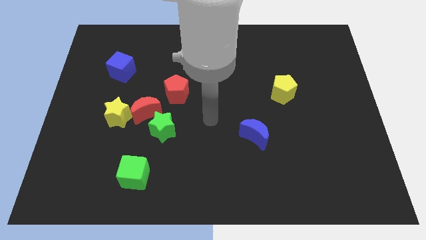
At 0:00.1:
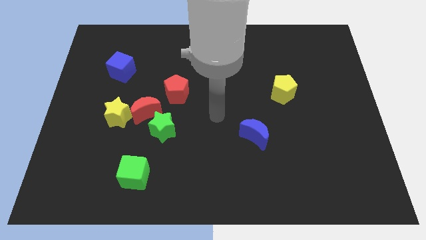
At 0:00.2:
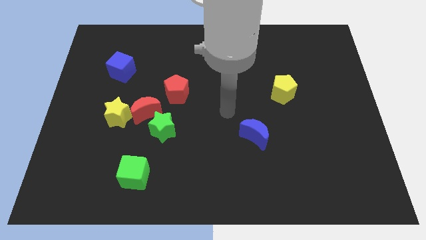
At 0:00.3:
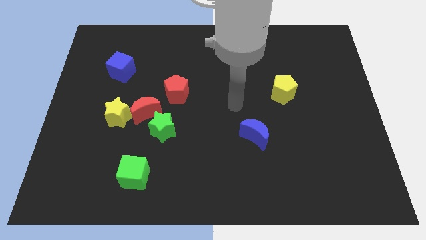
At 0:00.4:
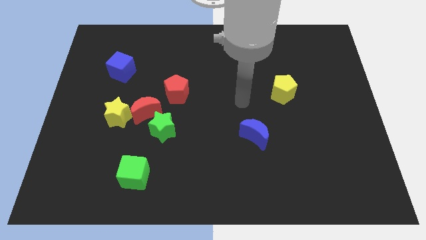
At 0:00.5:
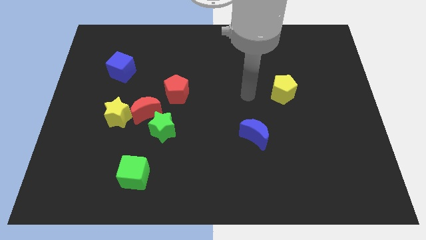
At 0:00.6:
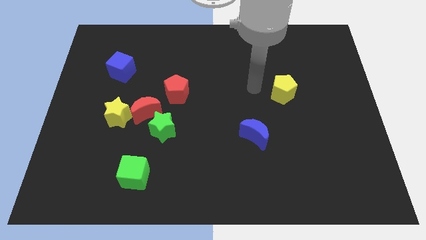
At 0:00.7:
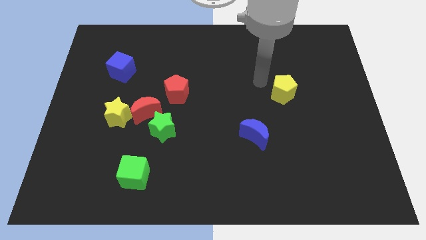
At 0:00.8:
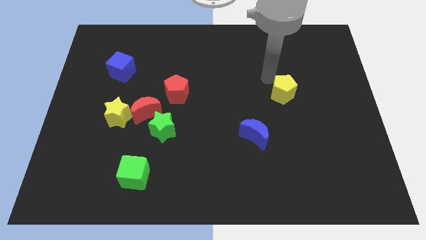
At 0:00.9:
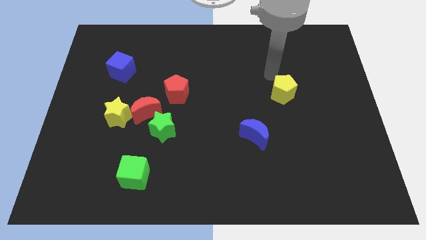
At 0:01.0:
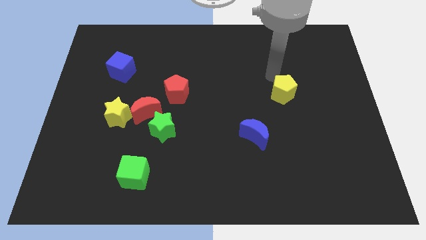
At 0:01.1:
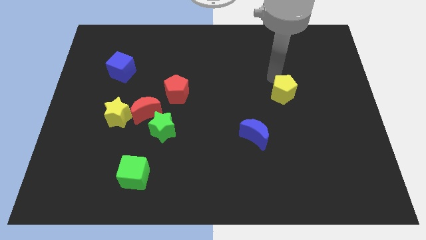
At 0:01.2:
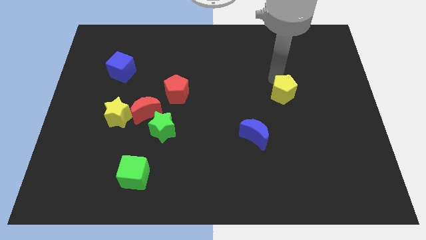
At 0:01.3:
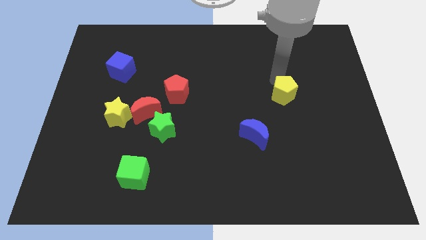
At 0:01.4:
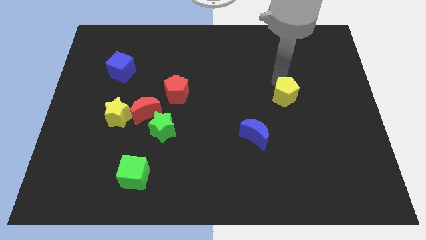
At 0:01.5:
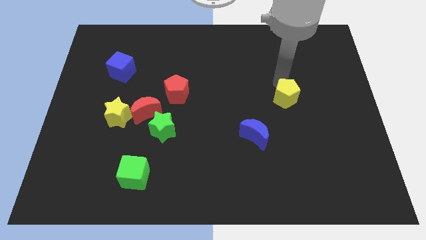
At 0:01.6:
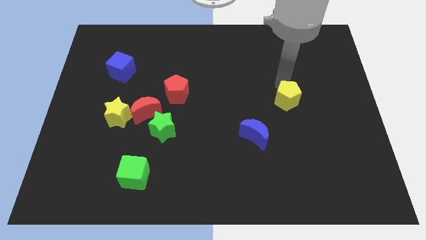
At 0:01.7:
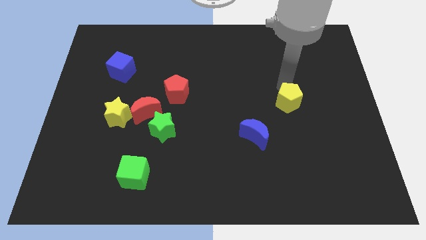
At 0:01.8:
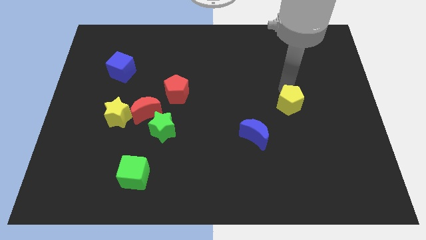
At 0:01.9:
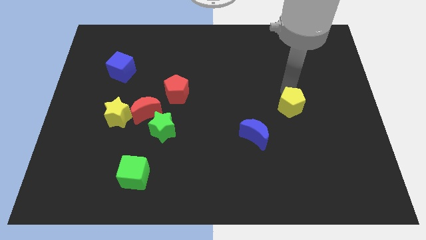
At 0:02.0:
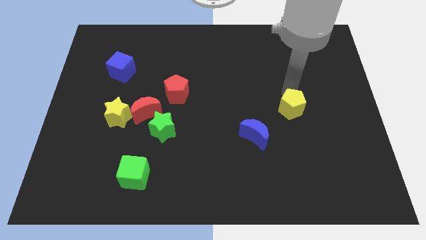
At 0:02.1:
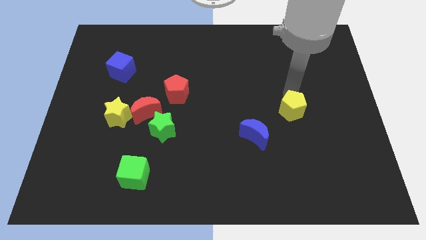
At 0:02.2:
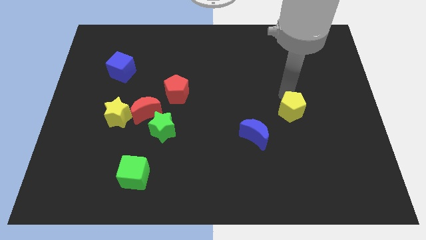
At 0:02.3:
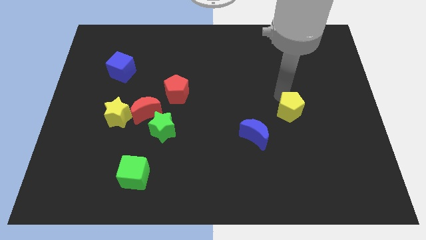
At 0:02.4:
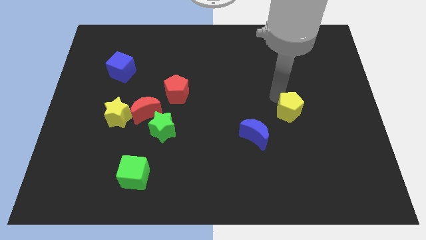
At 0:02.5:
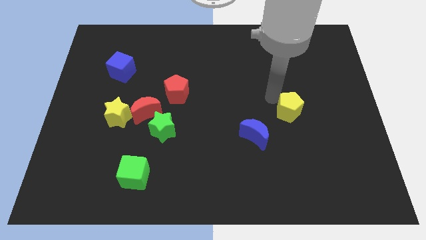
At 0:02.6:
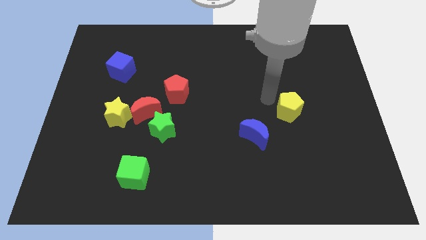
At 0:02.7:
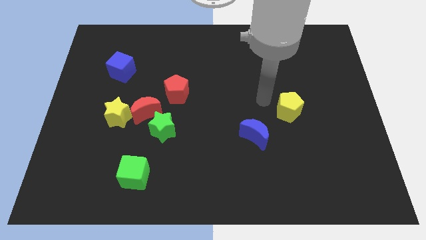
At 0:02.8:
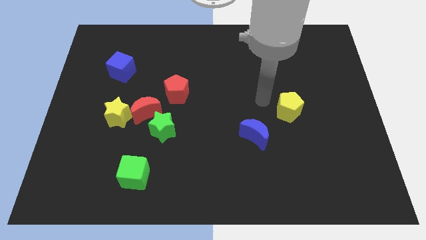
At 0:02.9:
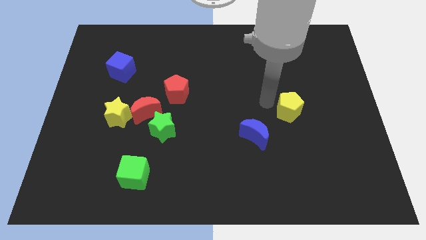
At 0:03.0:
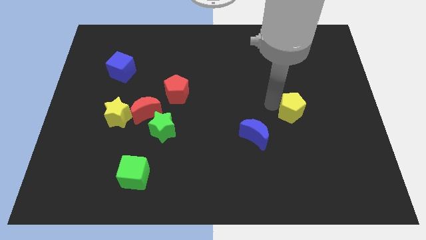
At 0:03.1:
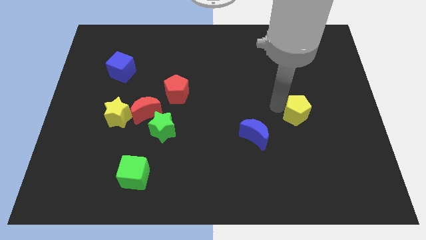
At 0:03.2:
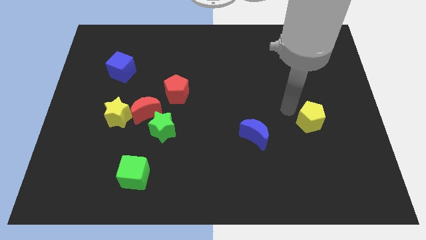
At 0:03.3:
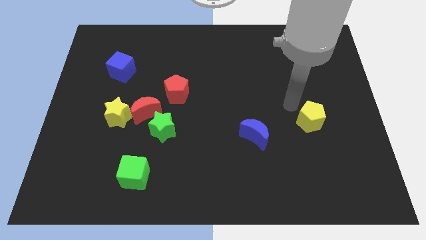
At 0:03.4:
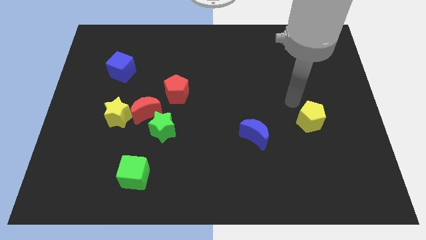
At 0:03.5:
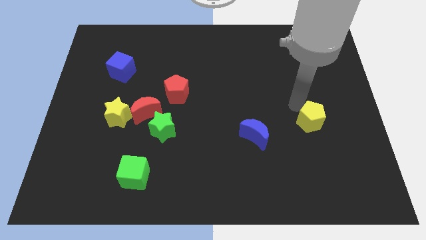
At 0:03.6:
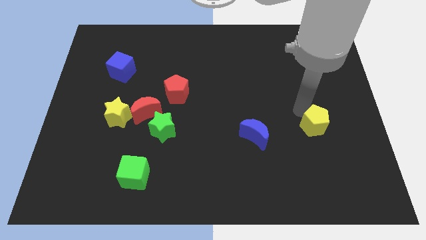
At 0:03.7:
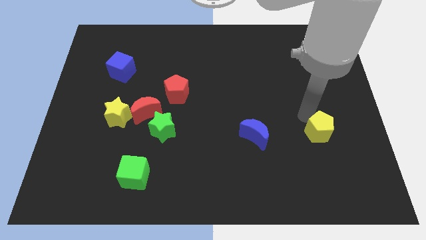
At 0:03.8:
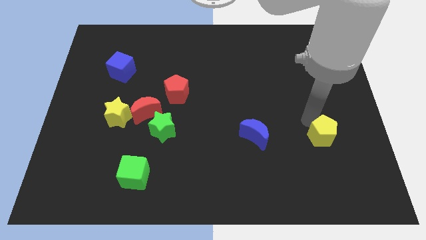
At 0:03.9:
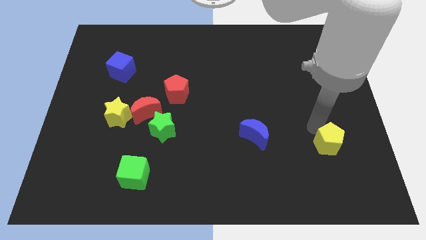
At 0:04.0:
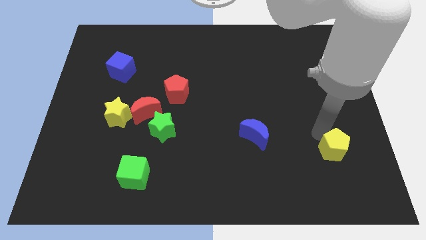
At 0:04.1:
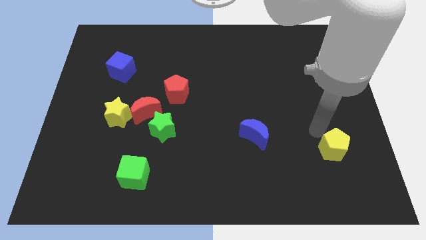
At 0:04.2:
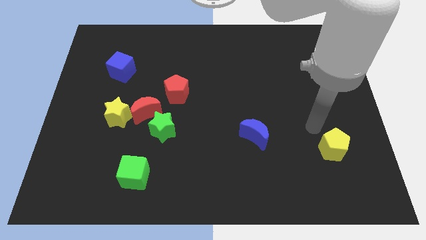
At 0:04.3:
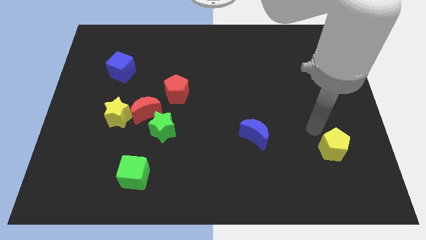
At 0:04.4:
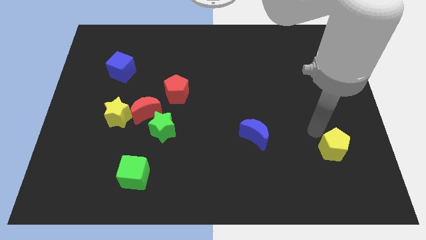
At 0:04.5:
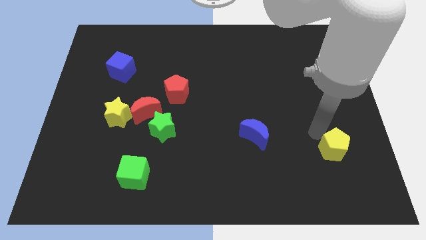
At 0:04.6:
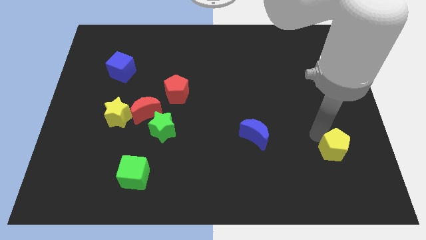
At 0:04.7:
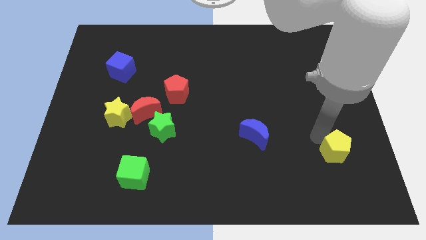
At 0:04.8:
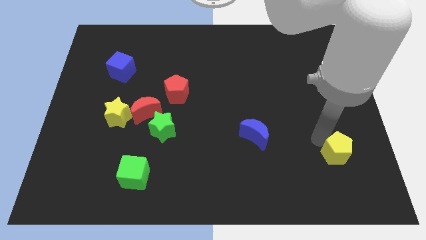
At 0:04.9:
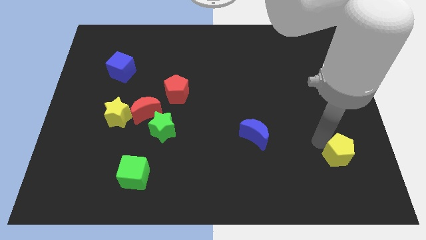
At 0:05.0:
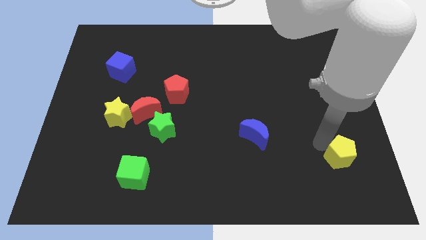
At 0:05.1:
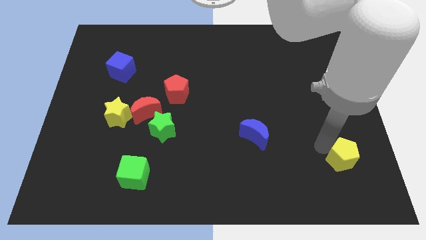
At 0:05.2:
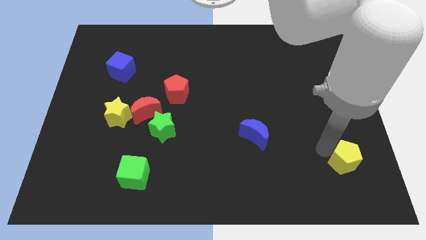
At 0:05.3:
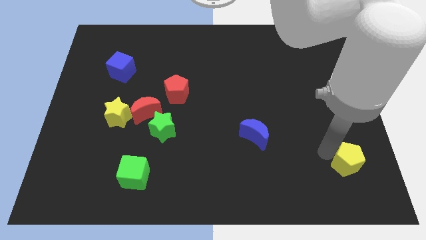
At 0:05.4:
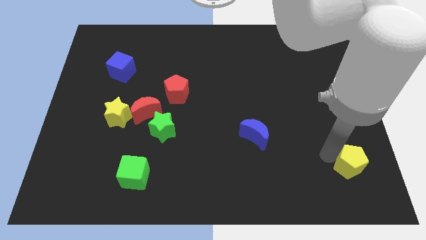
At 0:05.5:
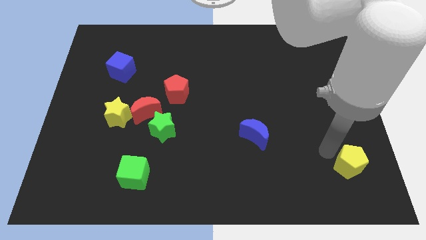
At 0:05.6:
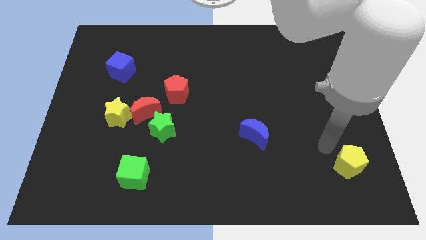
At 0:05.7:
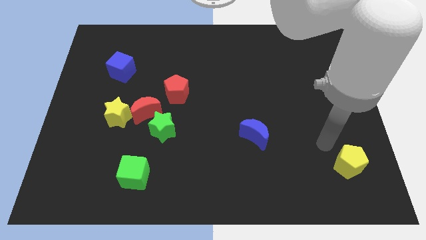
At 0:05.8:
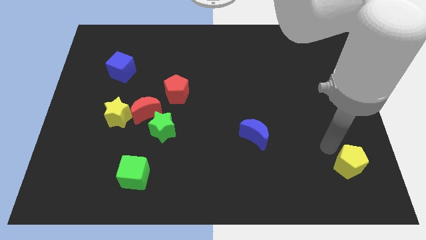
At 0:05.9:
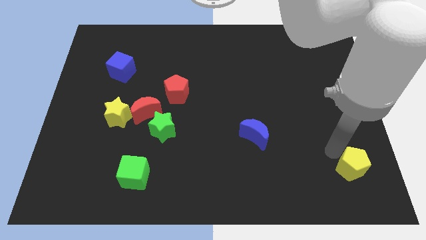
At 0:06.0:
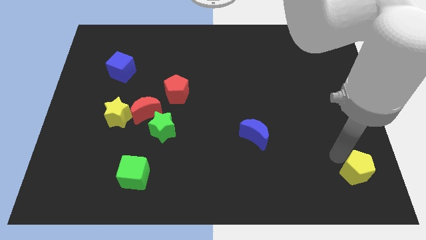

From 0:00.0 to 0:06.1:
slide the yellow pentagon to the bottom right corner

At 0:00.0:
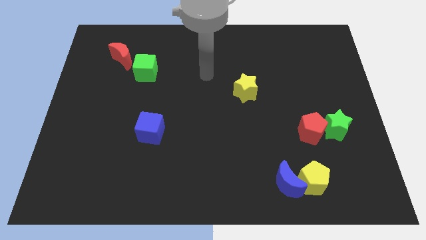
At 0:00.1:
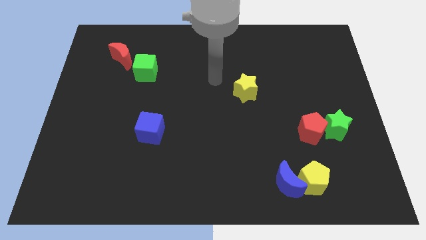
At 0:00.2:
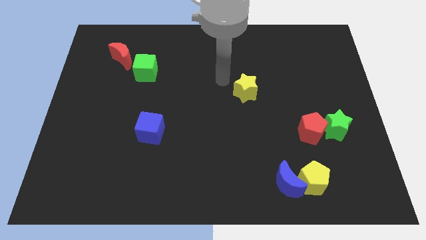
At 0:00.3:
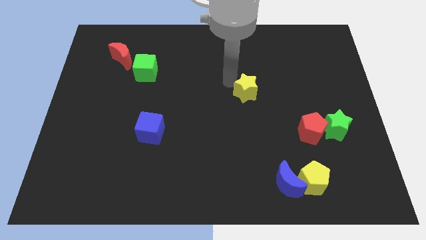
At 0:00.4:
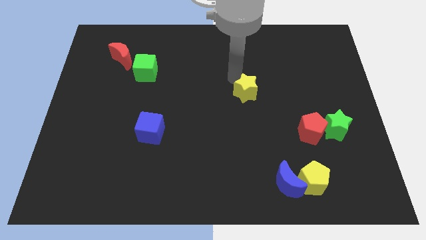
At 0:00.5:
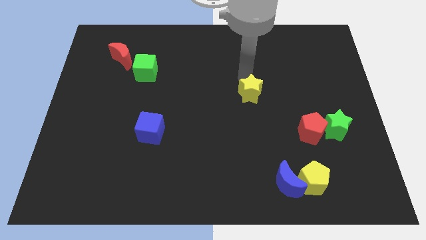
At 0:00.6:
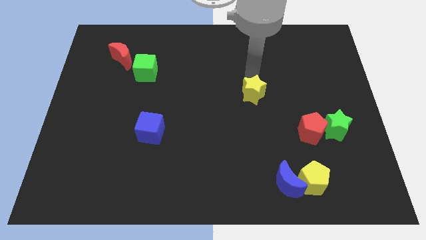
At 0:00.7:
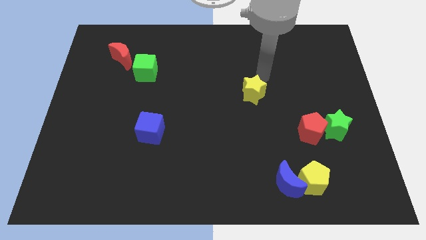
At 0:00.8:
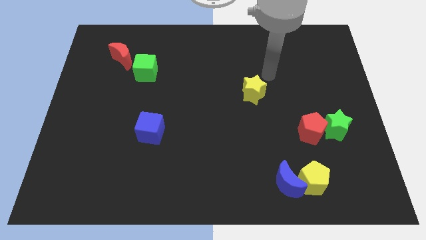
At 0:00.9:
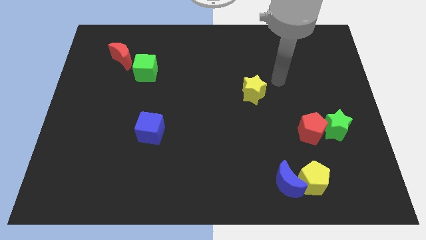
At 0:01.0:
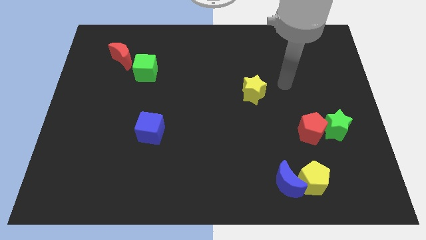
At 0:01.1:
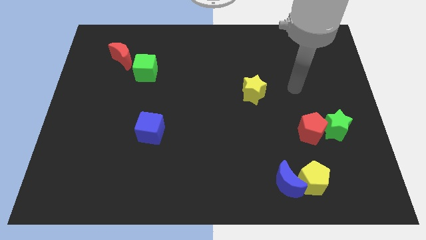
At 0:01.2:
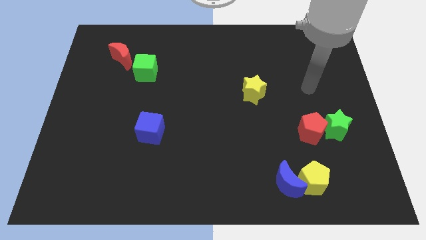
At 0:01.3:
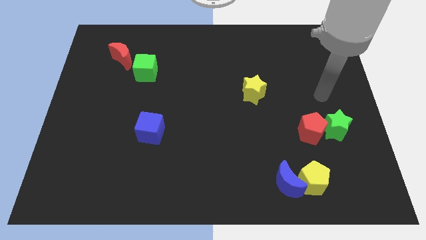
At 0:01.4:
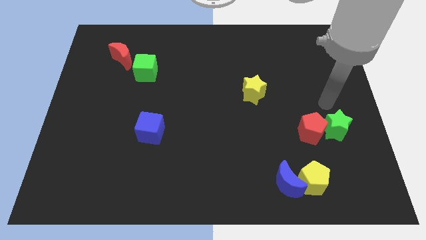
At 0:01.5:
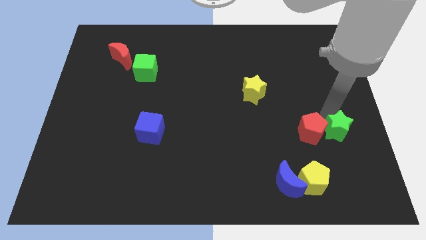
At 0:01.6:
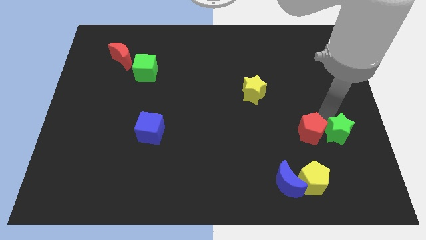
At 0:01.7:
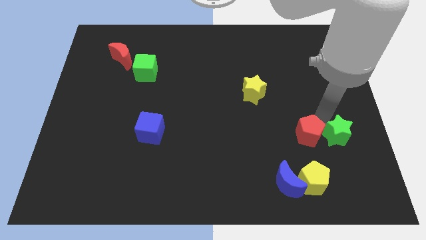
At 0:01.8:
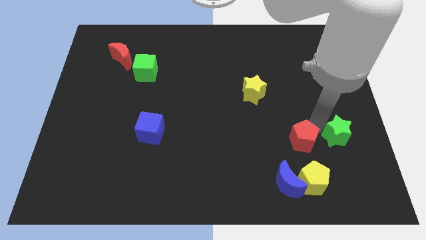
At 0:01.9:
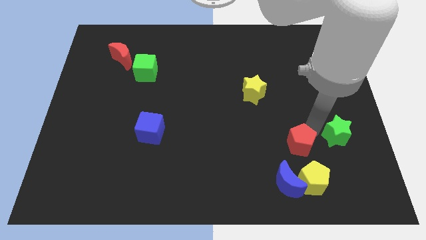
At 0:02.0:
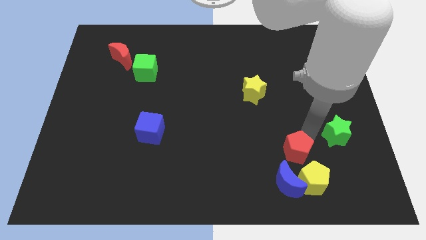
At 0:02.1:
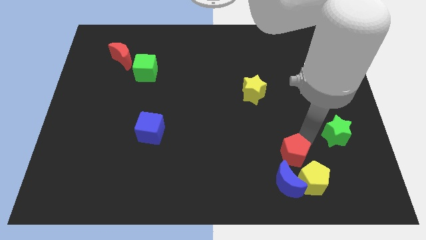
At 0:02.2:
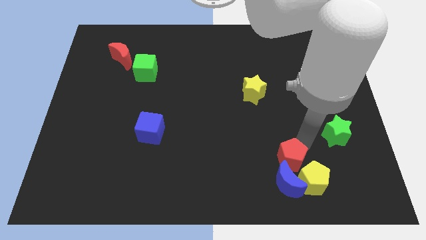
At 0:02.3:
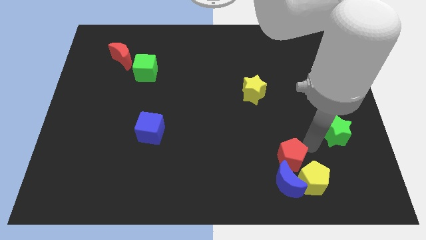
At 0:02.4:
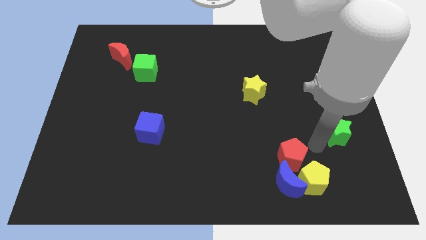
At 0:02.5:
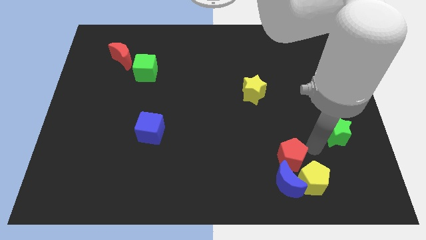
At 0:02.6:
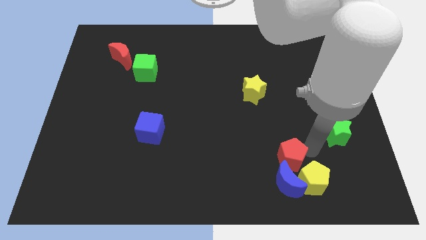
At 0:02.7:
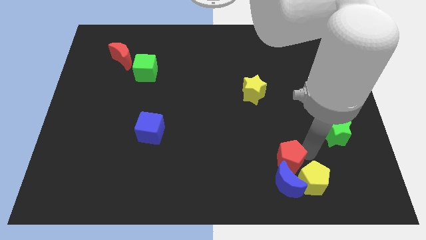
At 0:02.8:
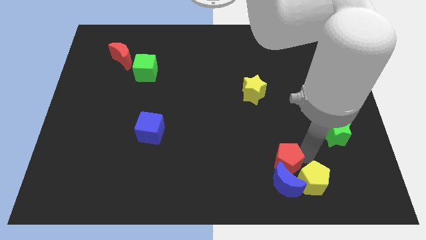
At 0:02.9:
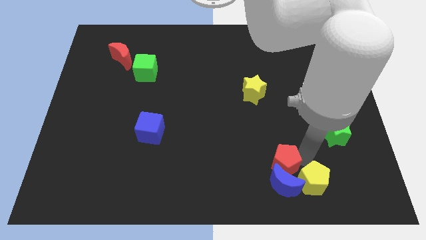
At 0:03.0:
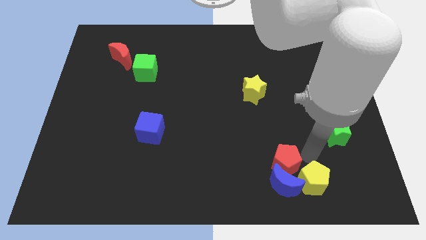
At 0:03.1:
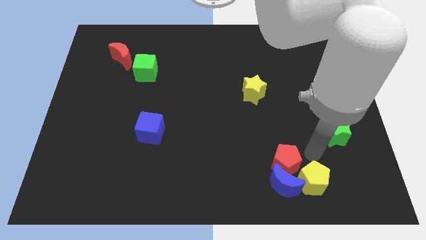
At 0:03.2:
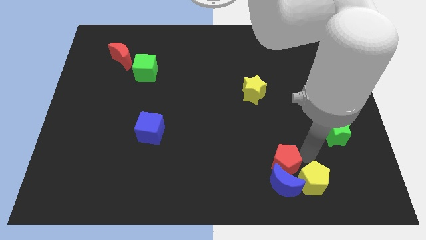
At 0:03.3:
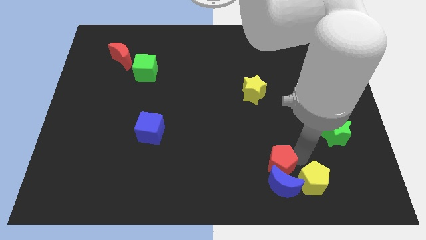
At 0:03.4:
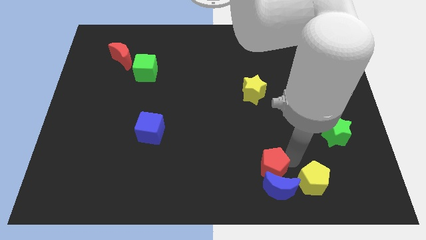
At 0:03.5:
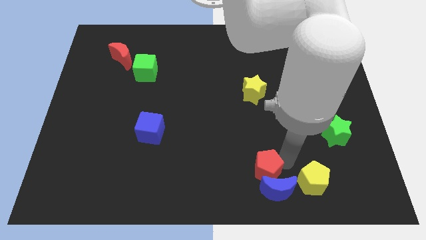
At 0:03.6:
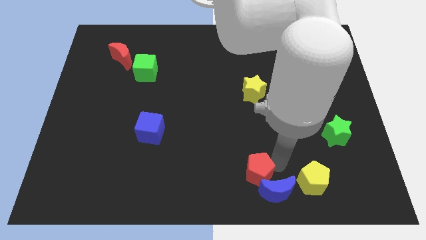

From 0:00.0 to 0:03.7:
move the red pentagon to the bottom
